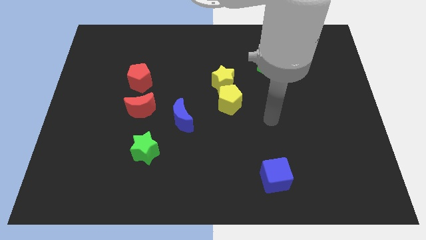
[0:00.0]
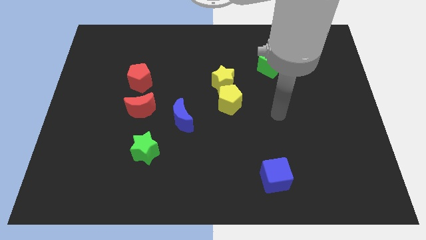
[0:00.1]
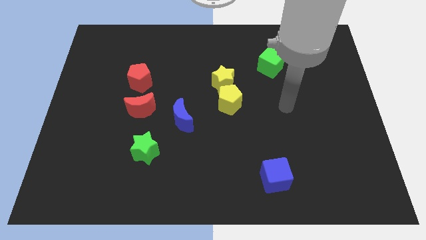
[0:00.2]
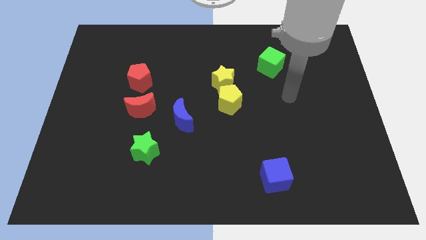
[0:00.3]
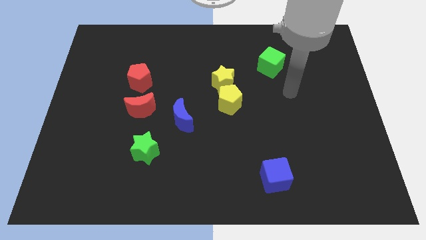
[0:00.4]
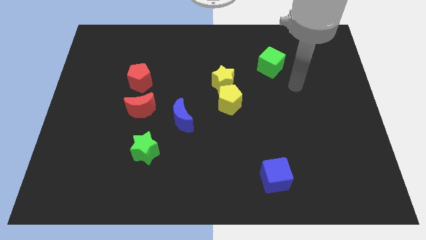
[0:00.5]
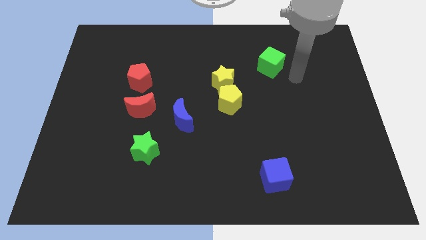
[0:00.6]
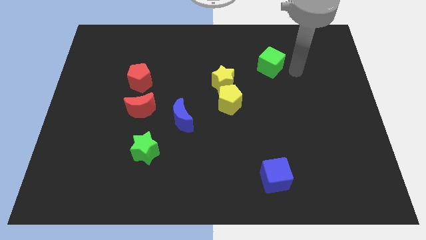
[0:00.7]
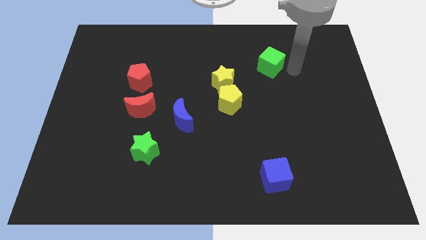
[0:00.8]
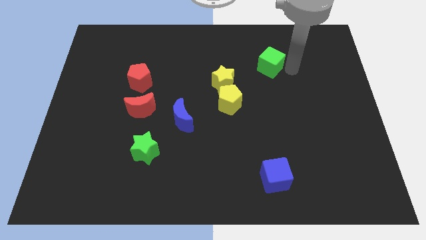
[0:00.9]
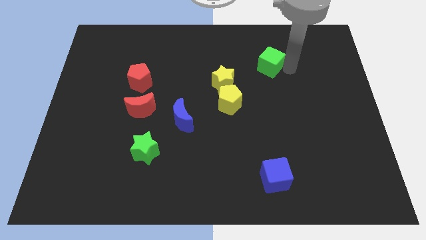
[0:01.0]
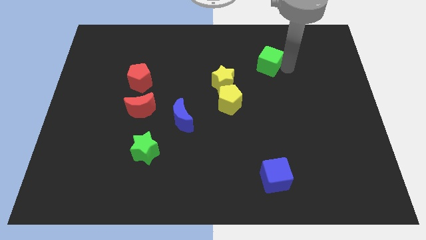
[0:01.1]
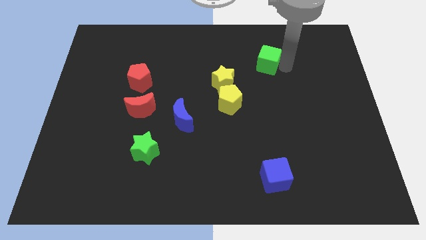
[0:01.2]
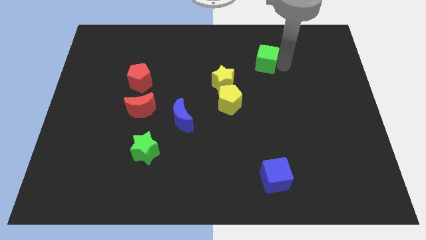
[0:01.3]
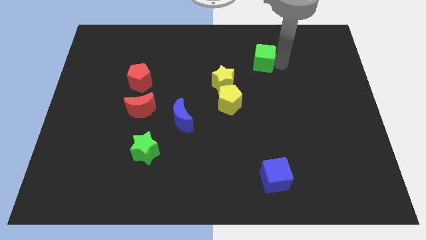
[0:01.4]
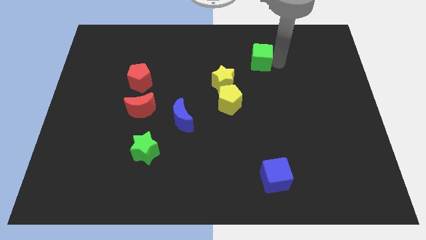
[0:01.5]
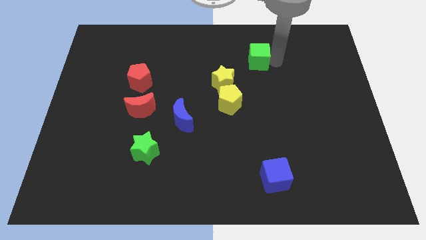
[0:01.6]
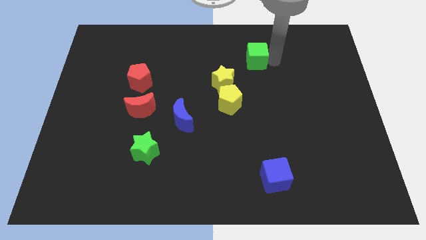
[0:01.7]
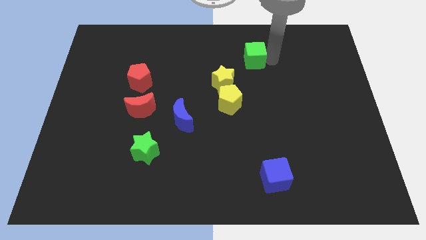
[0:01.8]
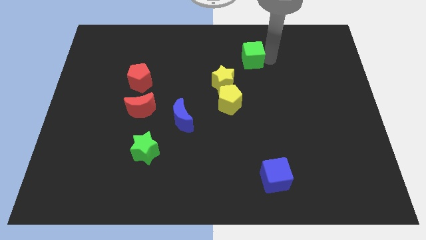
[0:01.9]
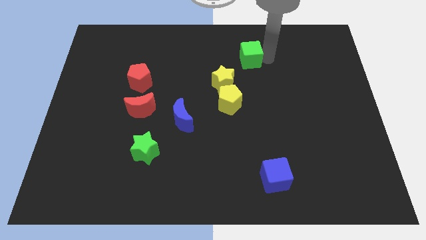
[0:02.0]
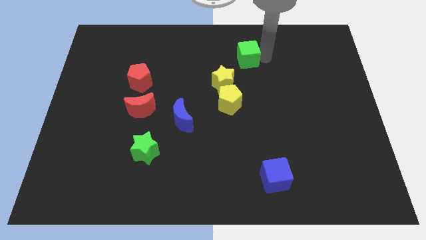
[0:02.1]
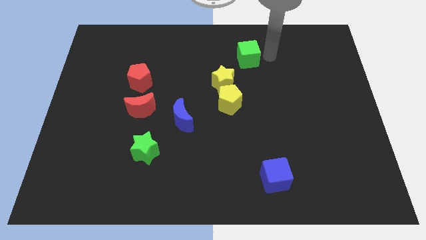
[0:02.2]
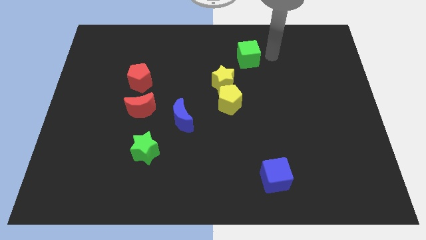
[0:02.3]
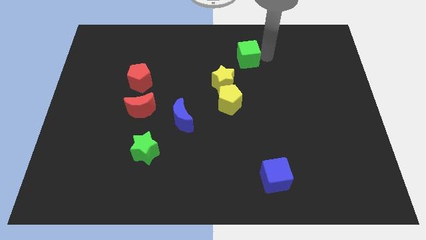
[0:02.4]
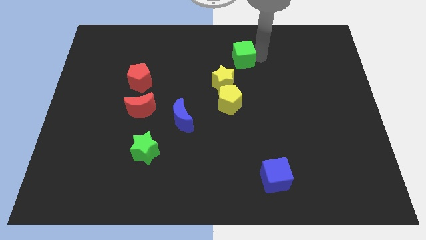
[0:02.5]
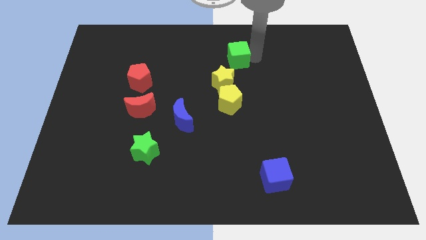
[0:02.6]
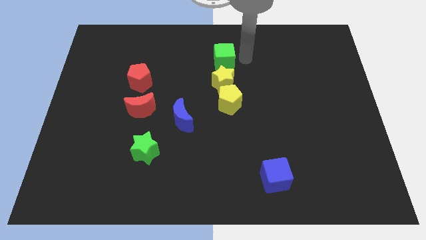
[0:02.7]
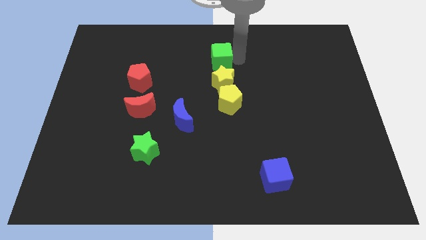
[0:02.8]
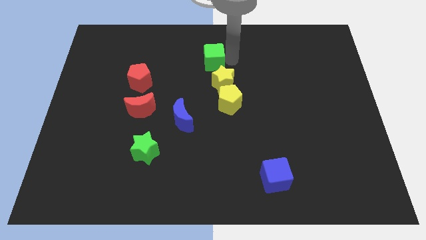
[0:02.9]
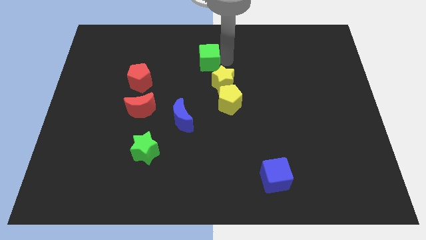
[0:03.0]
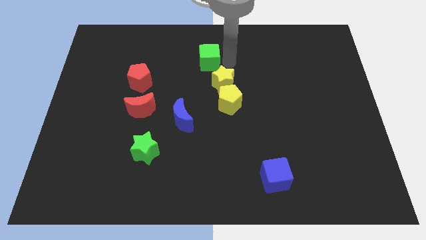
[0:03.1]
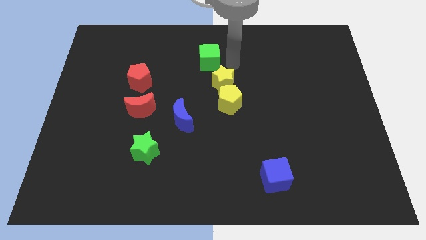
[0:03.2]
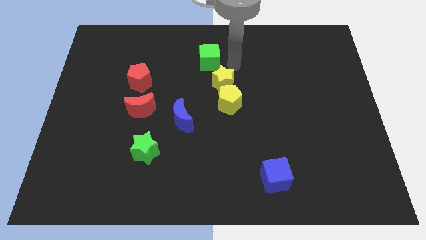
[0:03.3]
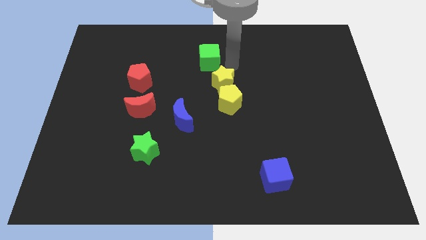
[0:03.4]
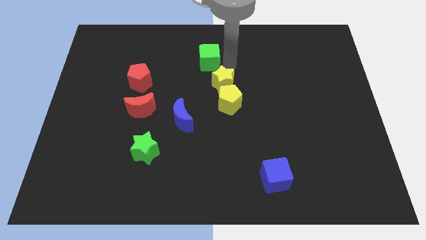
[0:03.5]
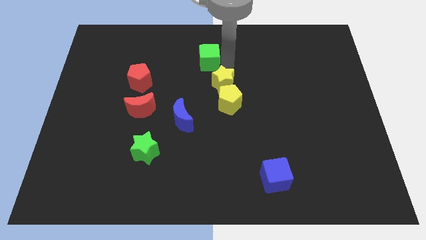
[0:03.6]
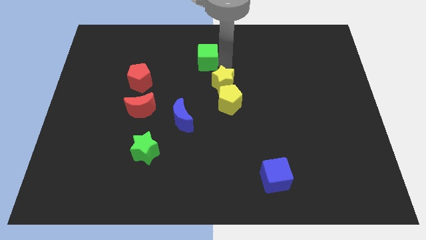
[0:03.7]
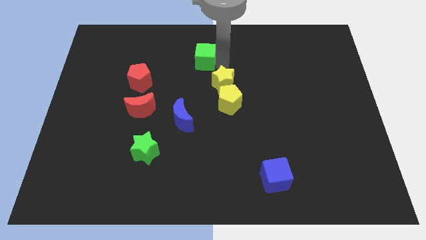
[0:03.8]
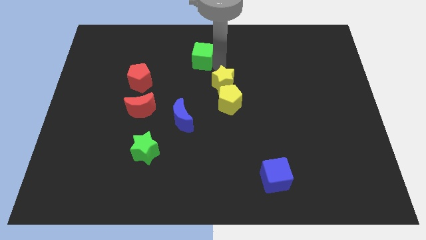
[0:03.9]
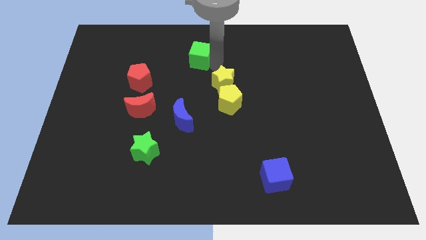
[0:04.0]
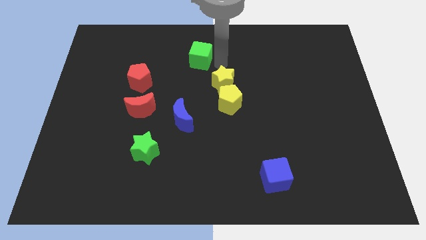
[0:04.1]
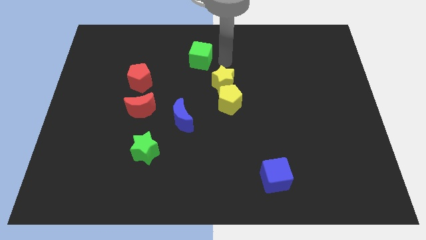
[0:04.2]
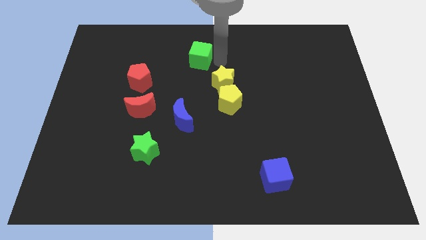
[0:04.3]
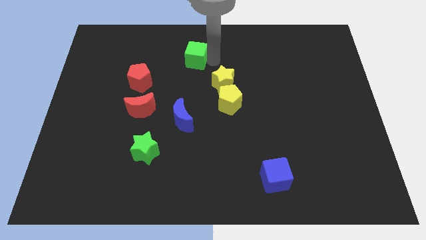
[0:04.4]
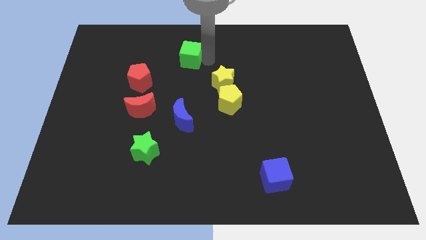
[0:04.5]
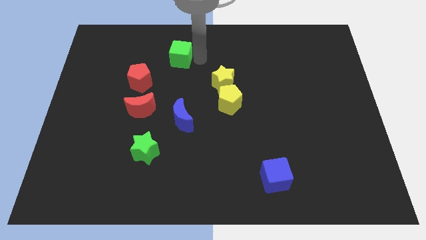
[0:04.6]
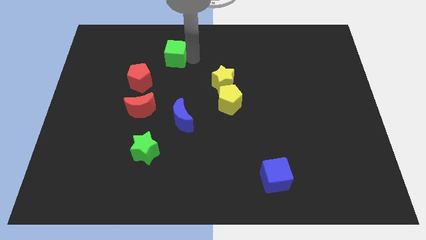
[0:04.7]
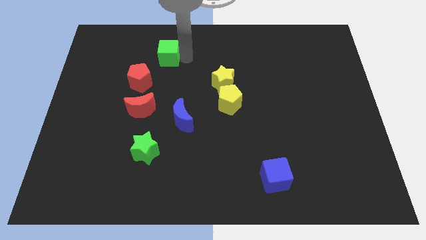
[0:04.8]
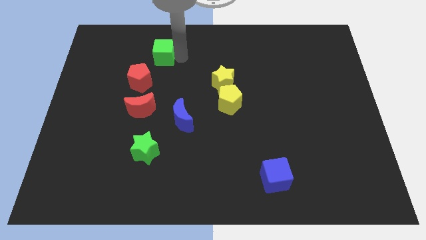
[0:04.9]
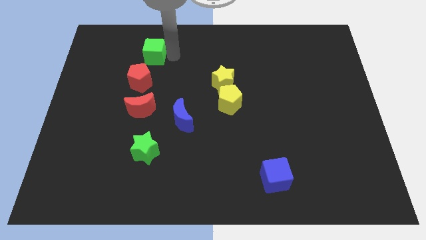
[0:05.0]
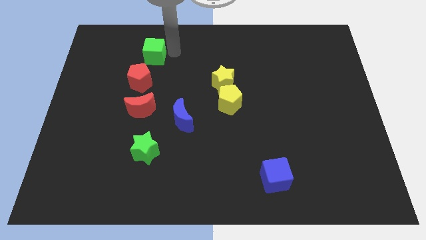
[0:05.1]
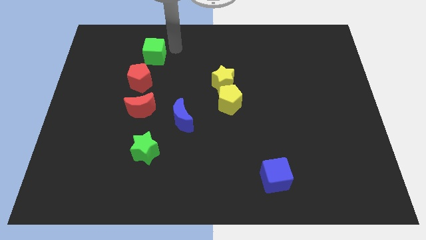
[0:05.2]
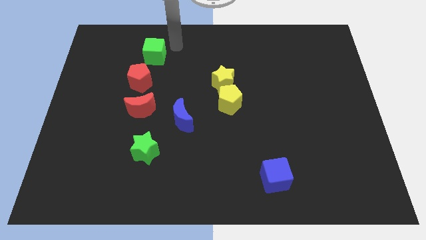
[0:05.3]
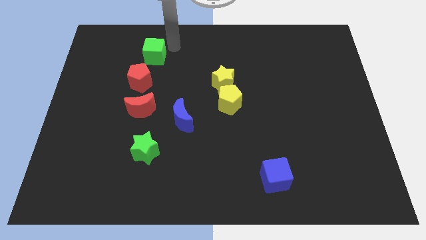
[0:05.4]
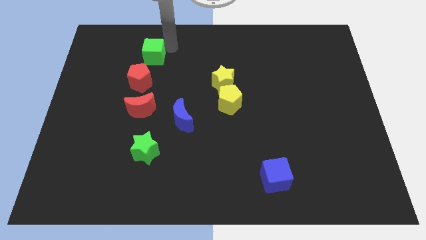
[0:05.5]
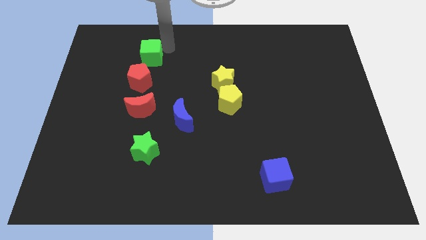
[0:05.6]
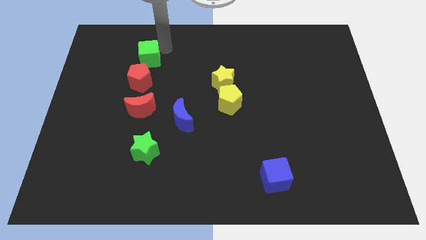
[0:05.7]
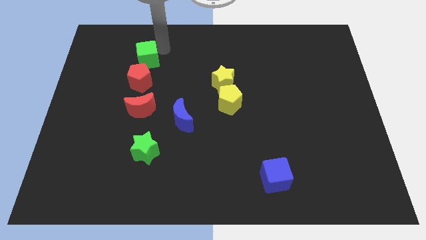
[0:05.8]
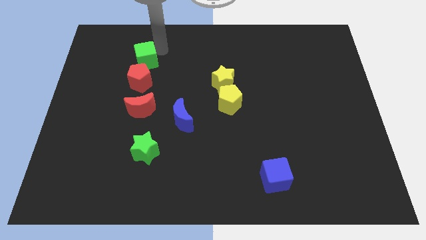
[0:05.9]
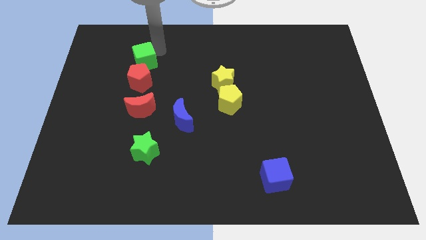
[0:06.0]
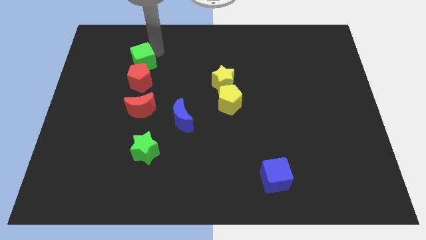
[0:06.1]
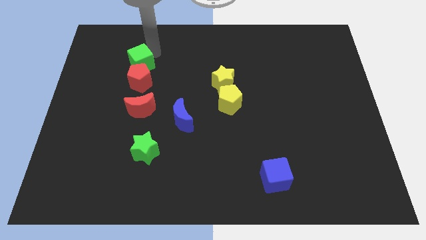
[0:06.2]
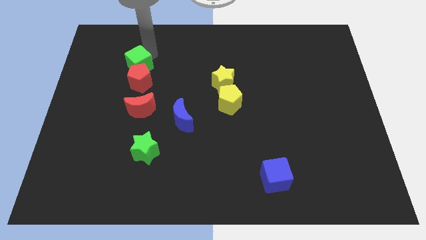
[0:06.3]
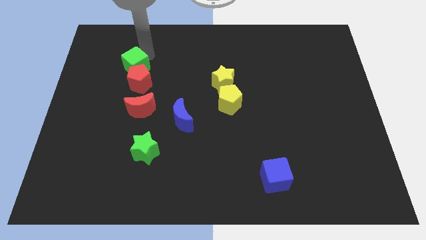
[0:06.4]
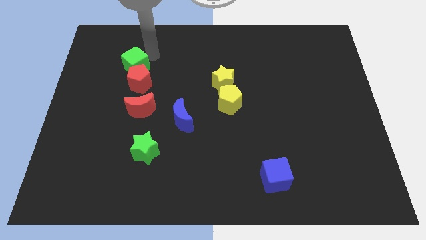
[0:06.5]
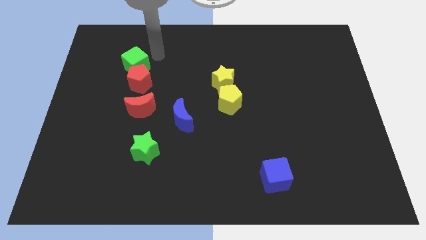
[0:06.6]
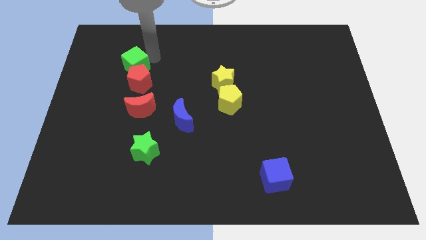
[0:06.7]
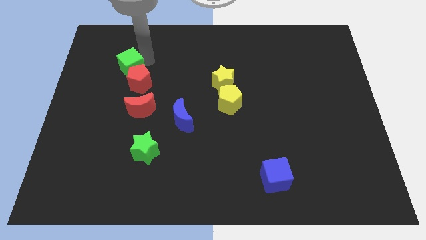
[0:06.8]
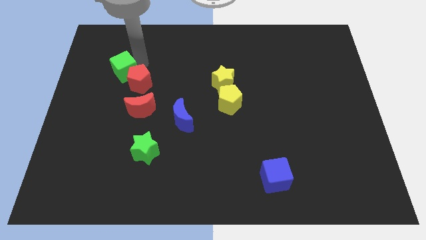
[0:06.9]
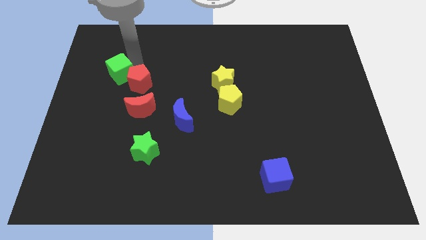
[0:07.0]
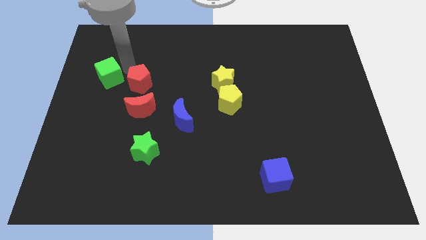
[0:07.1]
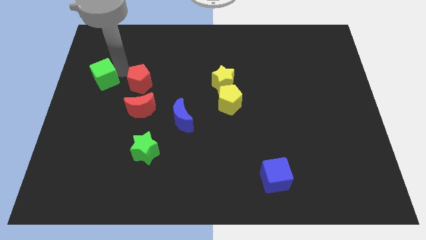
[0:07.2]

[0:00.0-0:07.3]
slide the green cube to the center left
